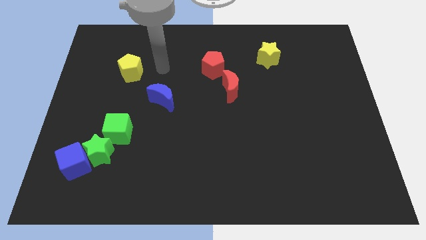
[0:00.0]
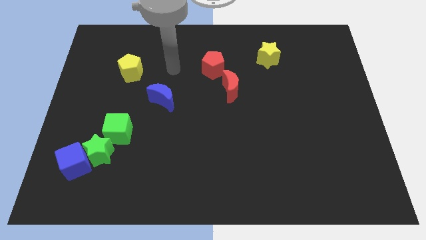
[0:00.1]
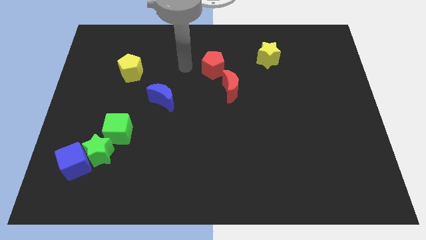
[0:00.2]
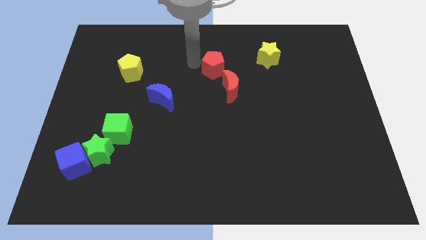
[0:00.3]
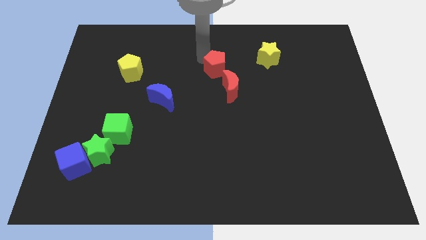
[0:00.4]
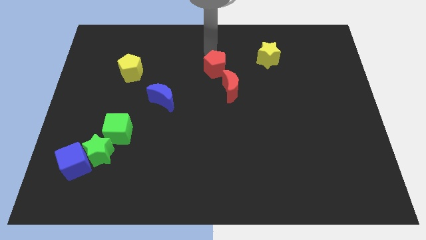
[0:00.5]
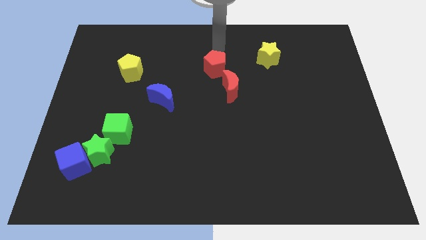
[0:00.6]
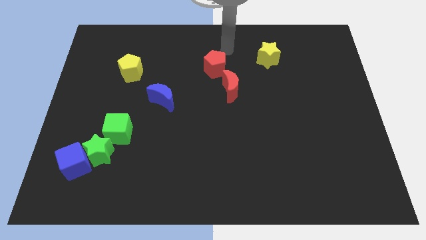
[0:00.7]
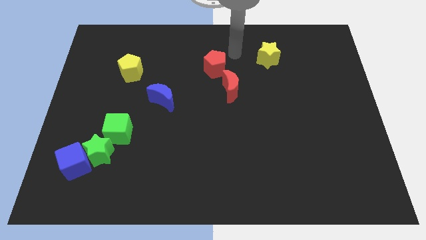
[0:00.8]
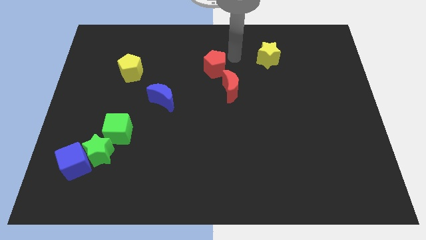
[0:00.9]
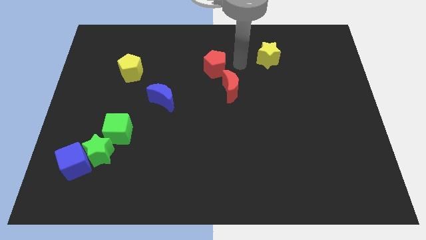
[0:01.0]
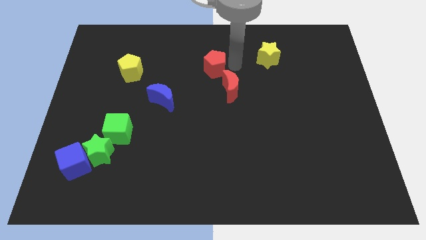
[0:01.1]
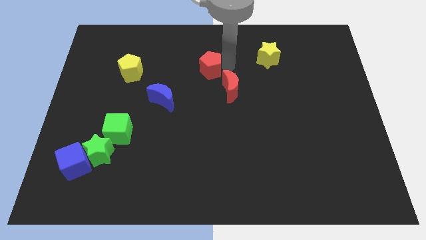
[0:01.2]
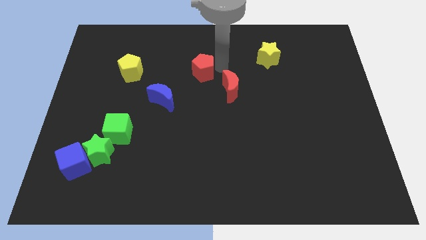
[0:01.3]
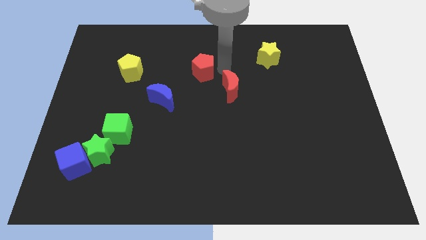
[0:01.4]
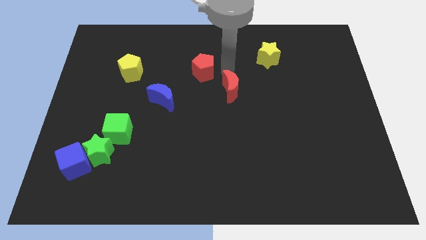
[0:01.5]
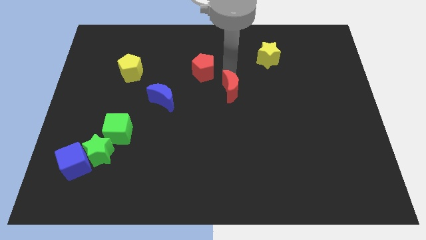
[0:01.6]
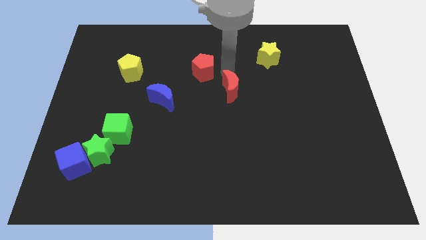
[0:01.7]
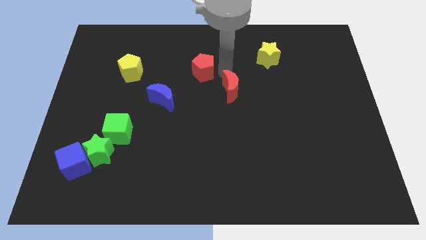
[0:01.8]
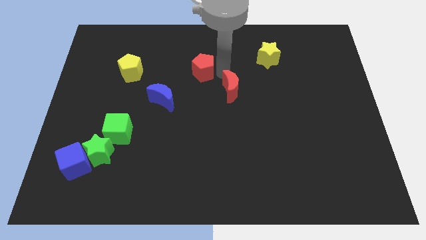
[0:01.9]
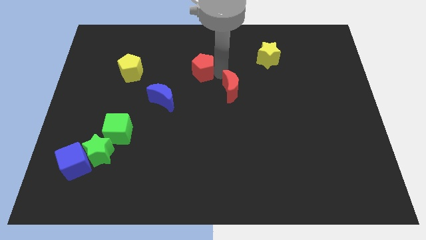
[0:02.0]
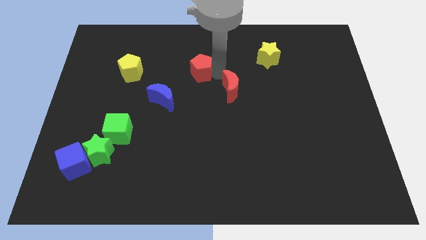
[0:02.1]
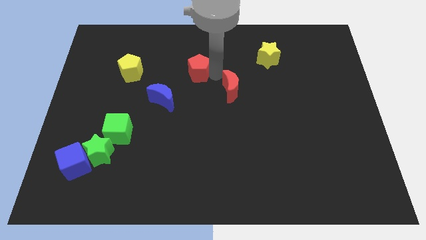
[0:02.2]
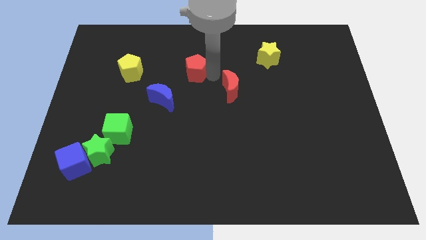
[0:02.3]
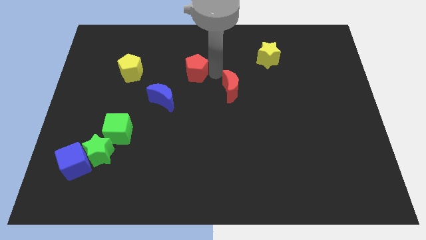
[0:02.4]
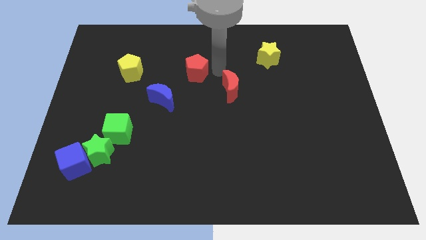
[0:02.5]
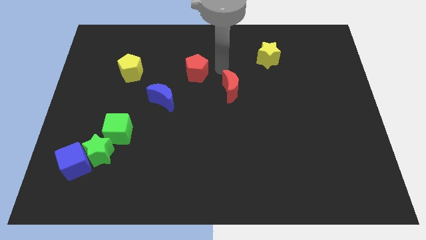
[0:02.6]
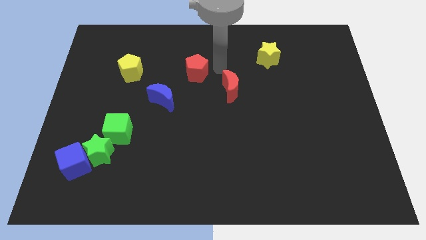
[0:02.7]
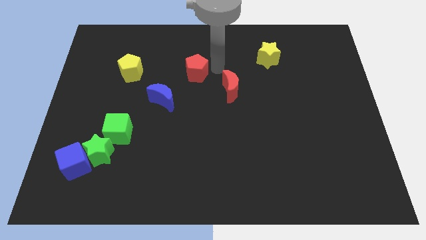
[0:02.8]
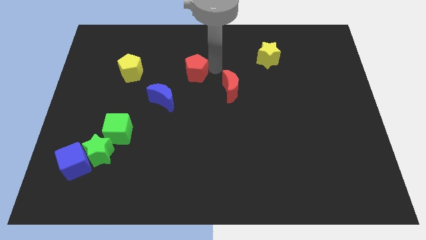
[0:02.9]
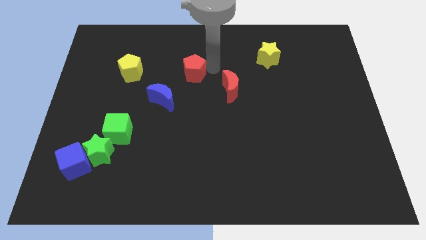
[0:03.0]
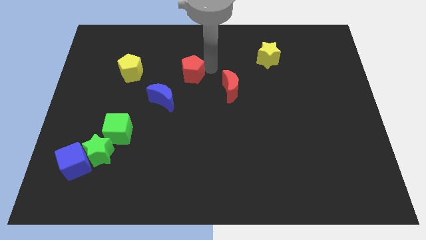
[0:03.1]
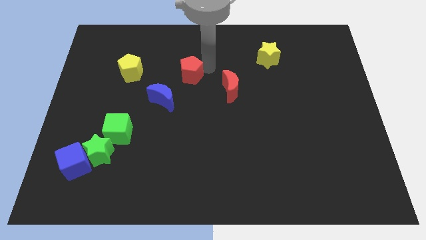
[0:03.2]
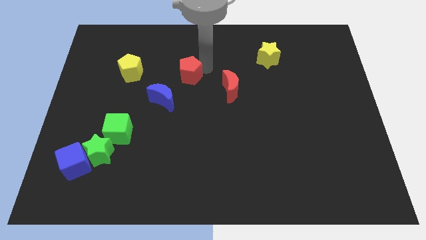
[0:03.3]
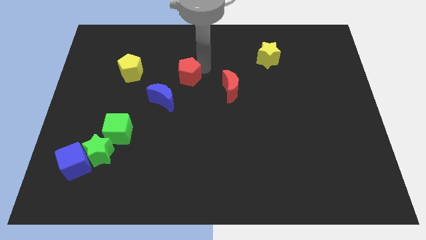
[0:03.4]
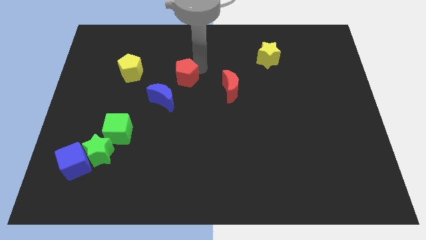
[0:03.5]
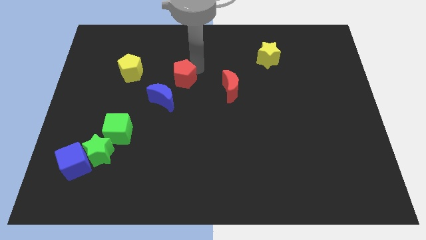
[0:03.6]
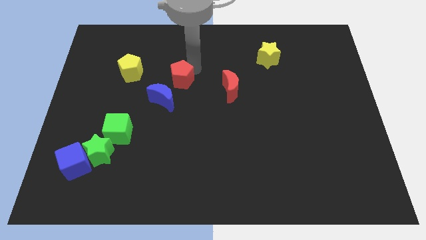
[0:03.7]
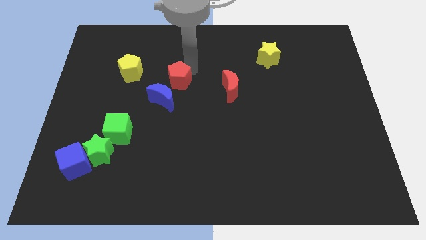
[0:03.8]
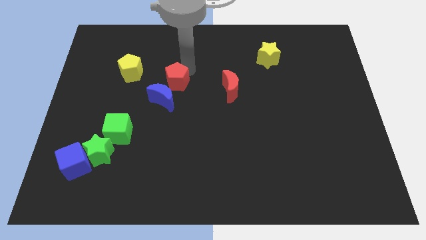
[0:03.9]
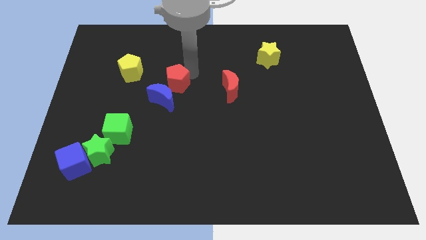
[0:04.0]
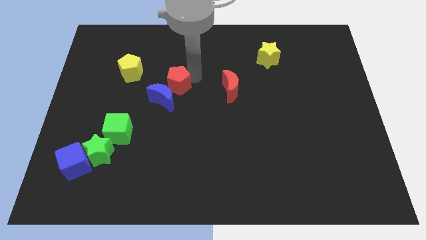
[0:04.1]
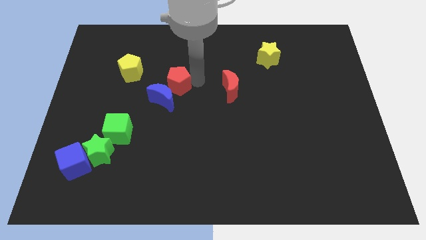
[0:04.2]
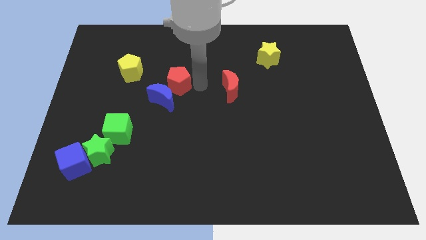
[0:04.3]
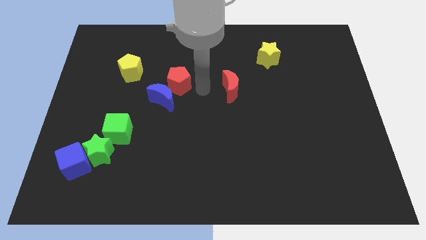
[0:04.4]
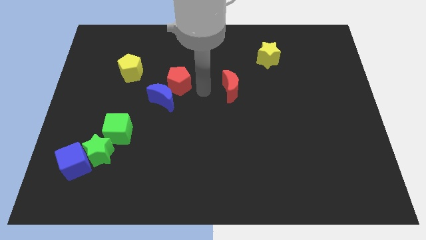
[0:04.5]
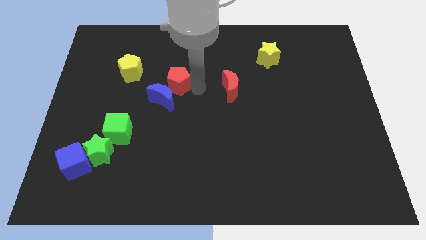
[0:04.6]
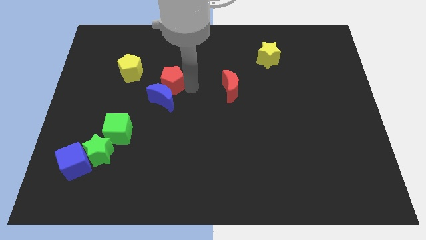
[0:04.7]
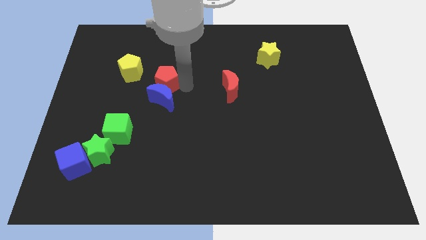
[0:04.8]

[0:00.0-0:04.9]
put the red pentagon to the top left of the blue moon

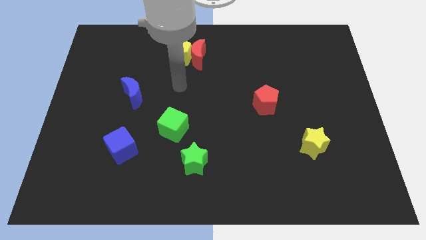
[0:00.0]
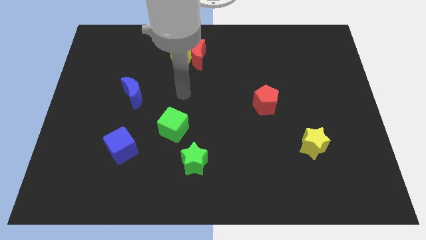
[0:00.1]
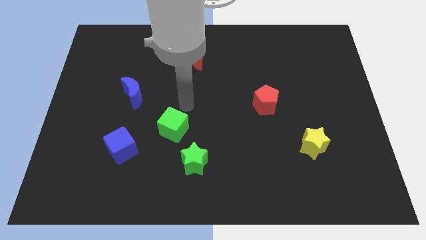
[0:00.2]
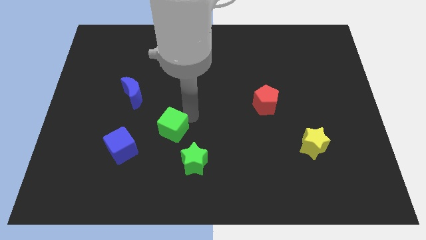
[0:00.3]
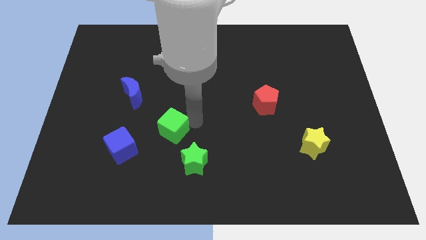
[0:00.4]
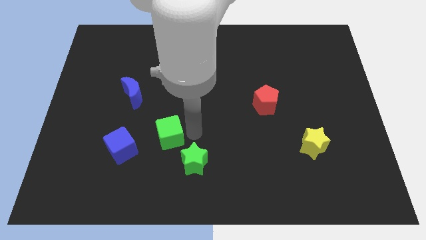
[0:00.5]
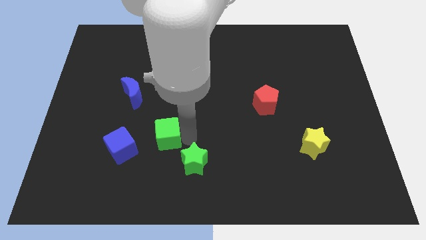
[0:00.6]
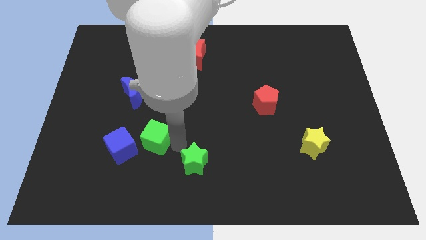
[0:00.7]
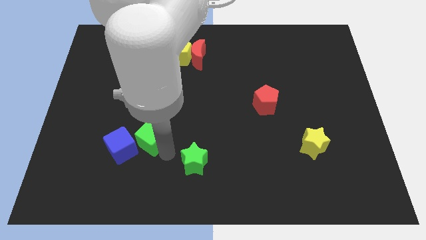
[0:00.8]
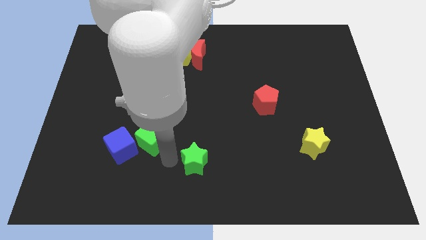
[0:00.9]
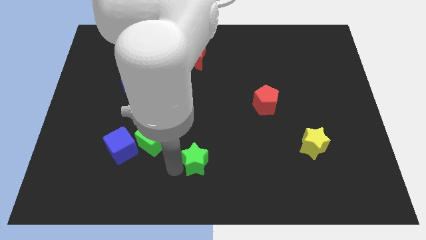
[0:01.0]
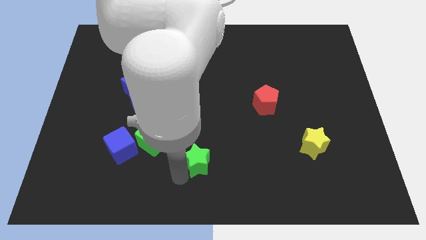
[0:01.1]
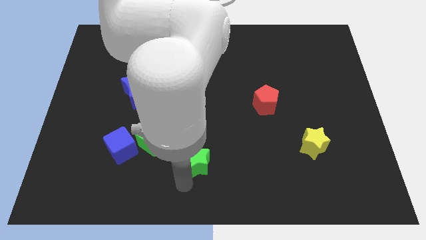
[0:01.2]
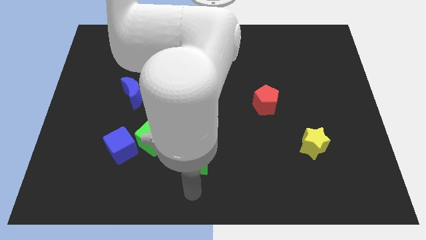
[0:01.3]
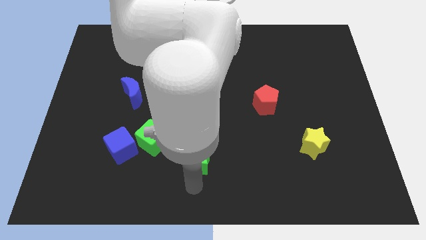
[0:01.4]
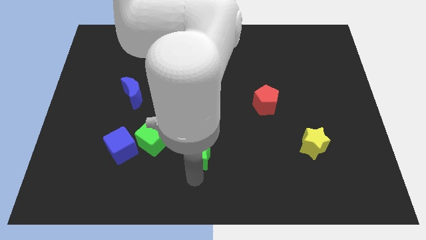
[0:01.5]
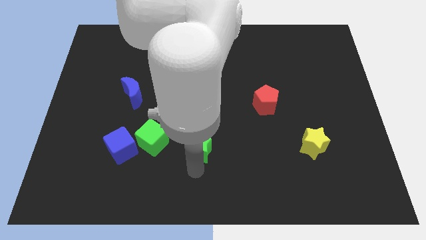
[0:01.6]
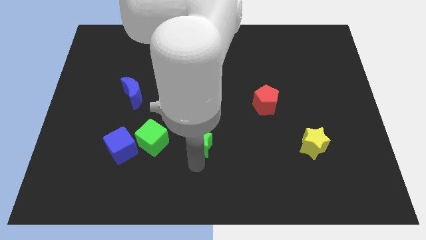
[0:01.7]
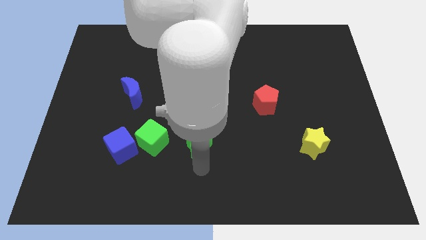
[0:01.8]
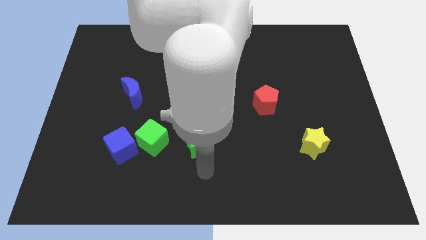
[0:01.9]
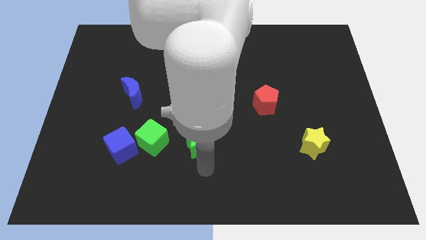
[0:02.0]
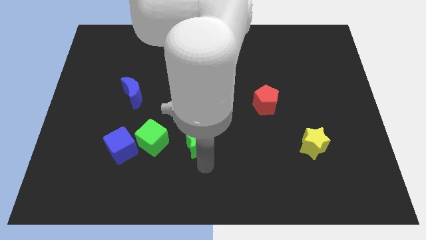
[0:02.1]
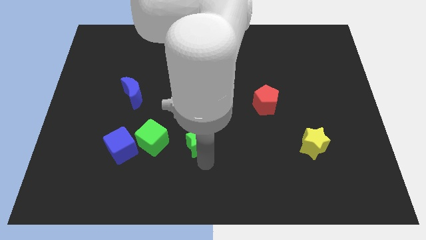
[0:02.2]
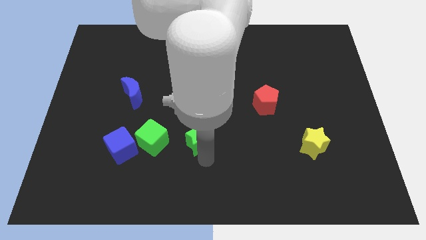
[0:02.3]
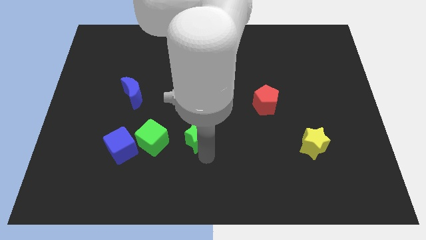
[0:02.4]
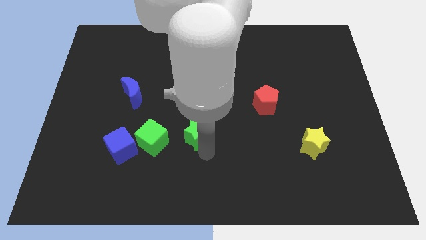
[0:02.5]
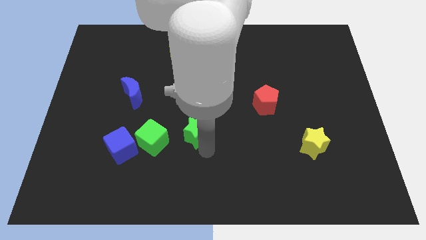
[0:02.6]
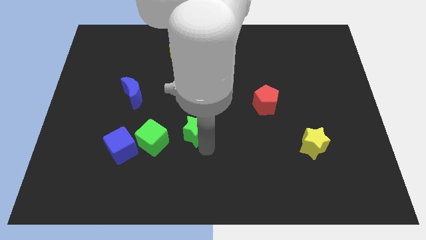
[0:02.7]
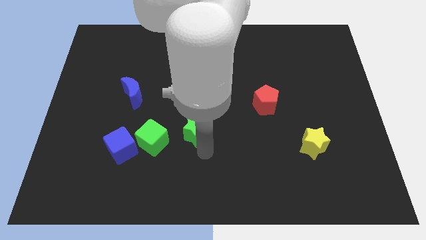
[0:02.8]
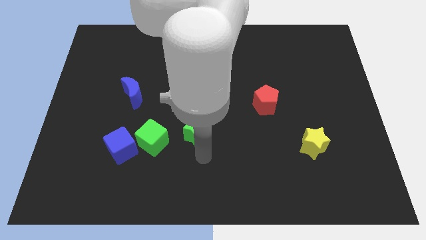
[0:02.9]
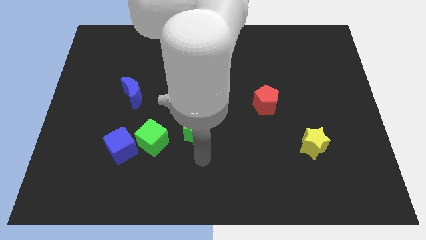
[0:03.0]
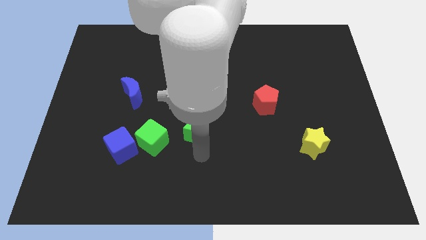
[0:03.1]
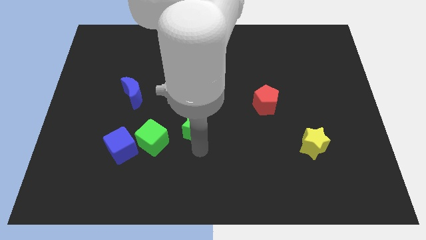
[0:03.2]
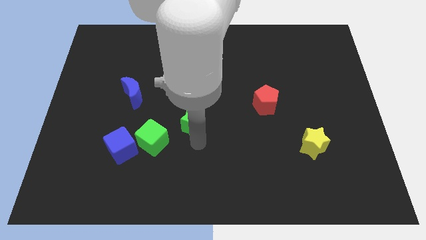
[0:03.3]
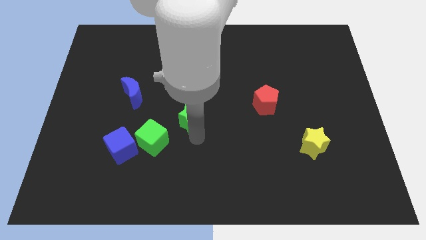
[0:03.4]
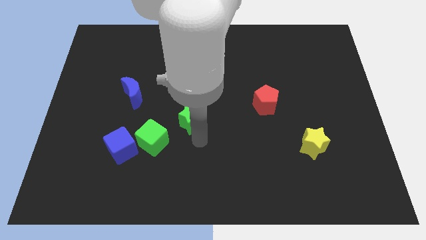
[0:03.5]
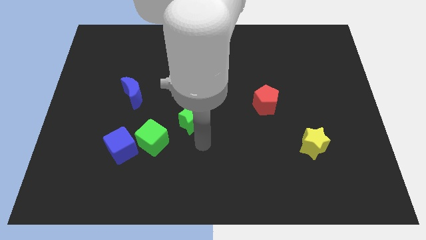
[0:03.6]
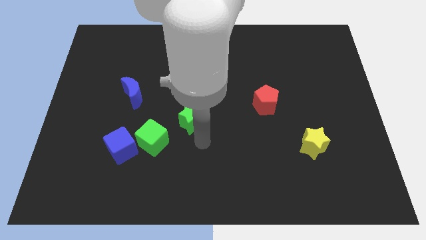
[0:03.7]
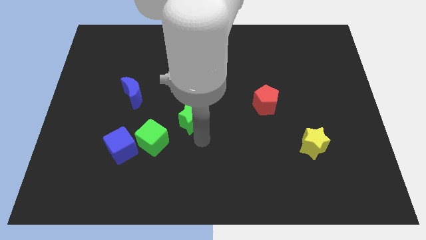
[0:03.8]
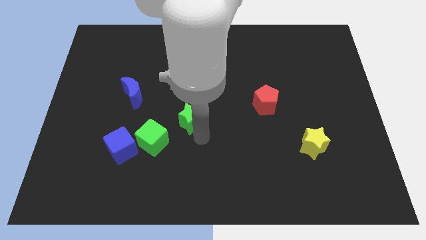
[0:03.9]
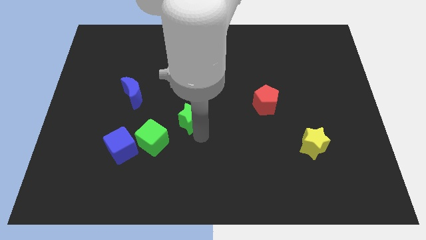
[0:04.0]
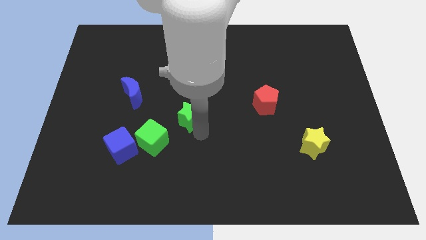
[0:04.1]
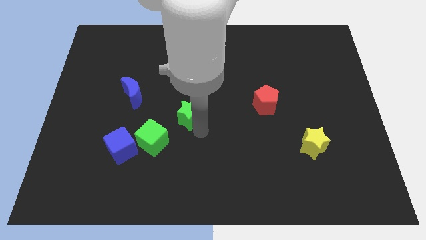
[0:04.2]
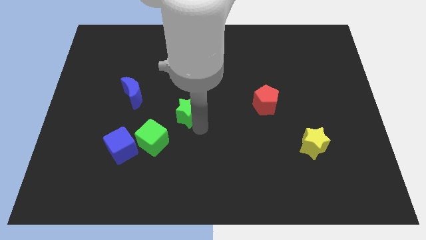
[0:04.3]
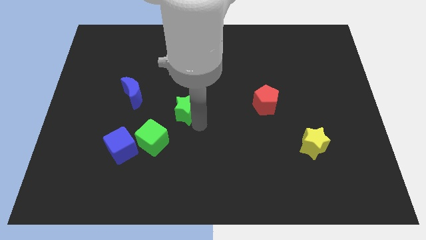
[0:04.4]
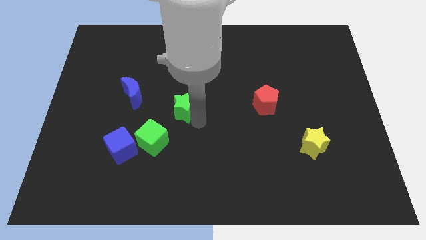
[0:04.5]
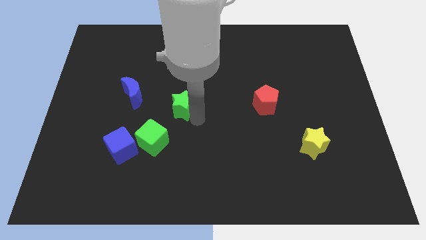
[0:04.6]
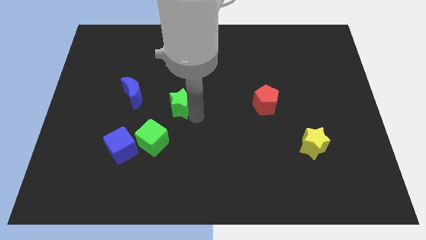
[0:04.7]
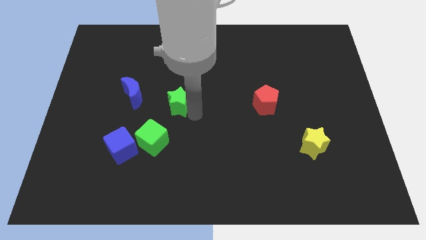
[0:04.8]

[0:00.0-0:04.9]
move the green star to the top of the green cube
